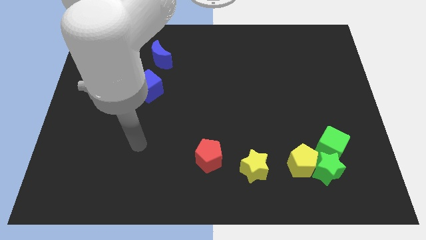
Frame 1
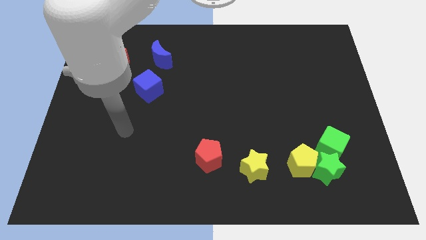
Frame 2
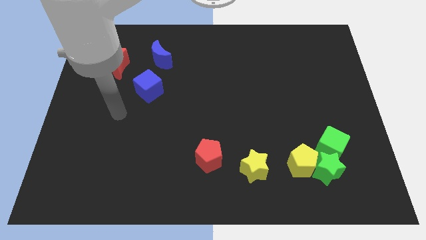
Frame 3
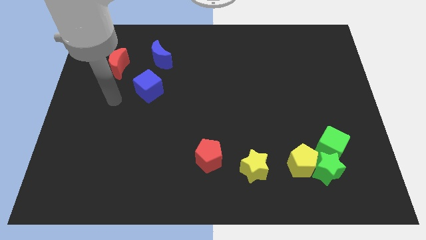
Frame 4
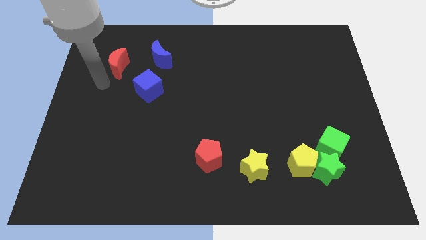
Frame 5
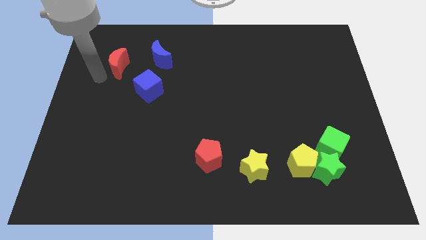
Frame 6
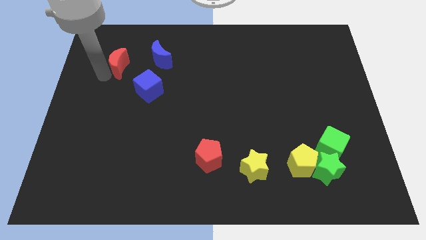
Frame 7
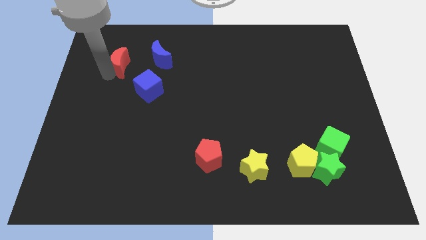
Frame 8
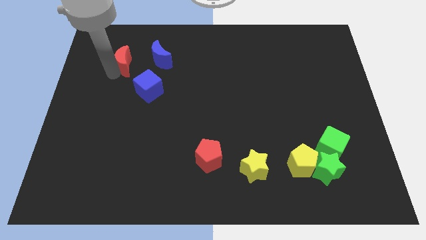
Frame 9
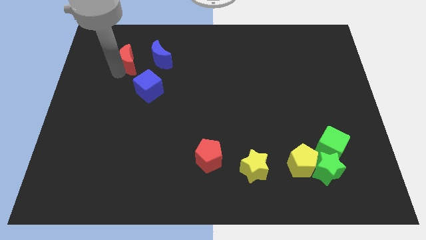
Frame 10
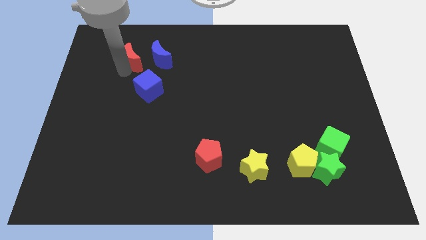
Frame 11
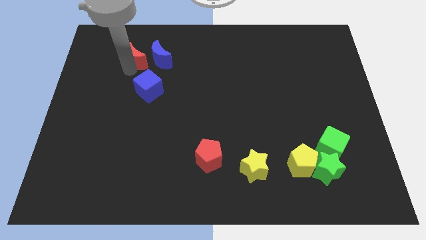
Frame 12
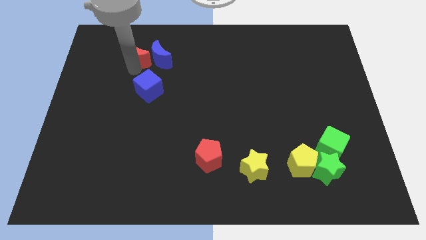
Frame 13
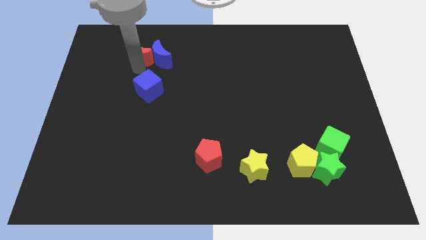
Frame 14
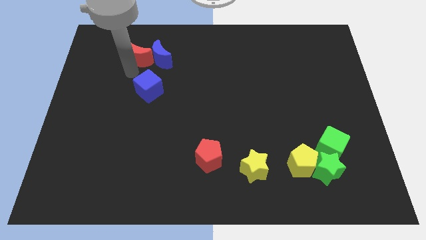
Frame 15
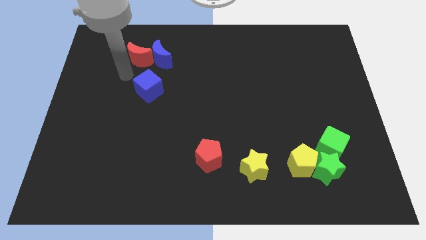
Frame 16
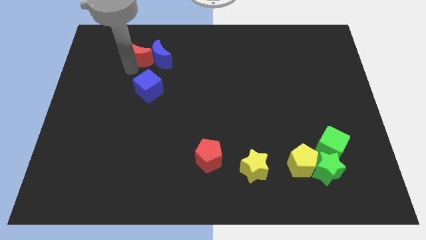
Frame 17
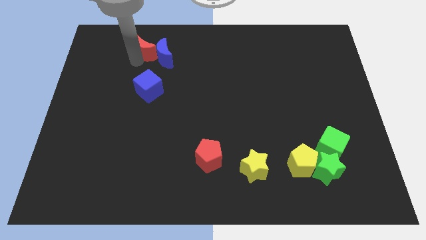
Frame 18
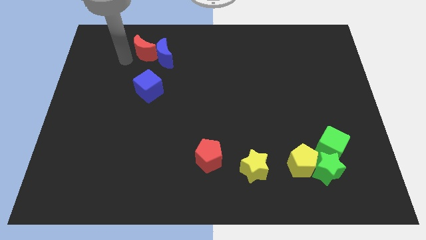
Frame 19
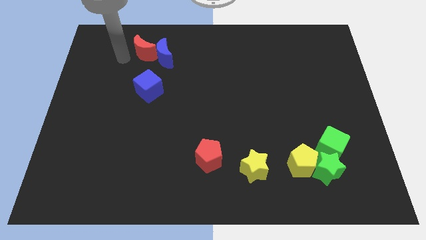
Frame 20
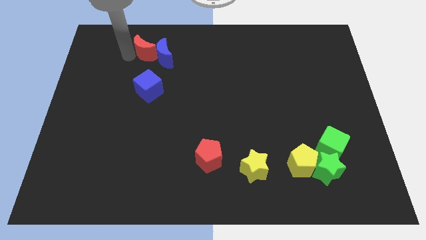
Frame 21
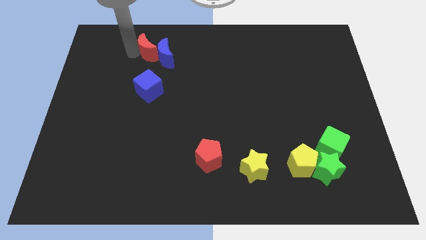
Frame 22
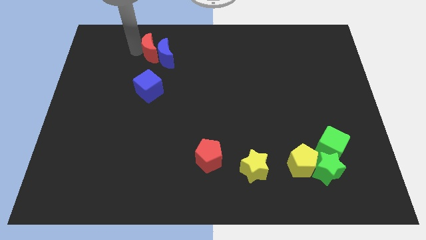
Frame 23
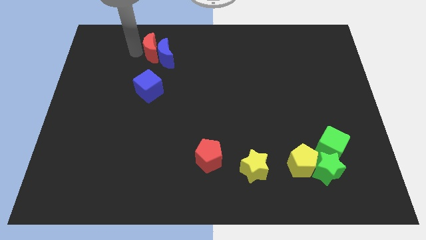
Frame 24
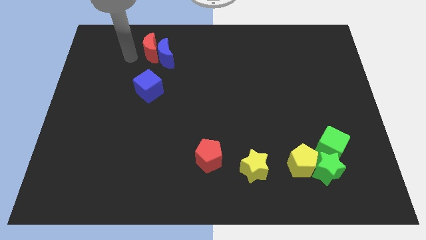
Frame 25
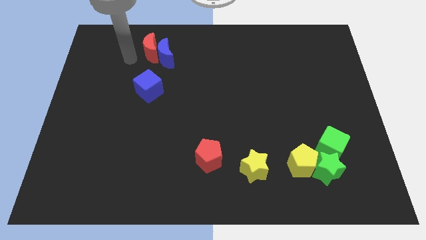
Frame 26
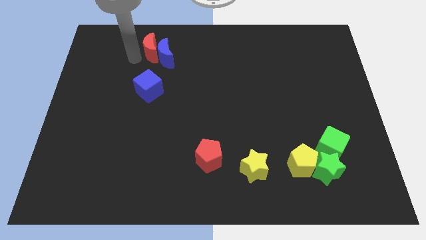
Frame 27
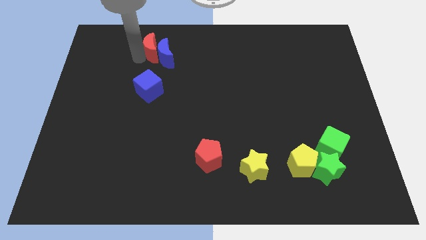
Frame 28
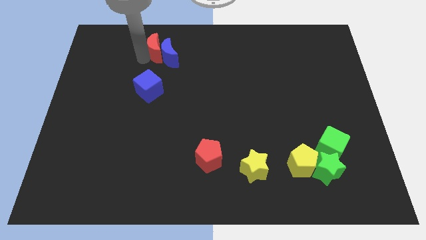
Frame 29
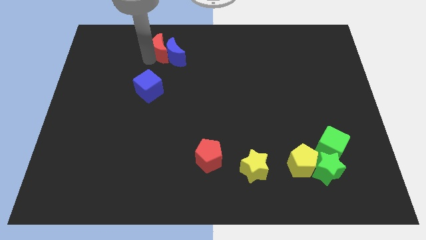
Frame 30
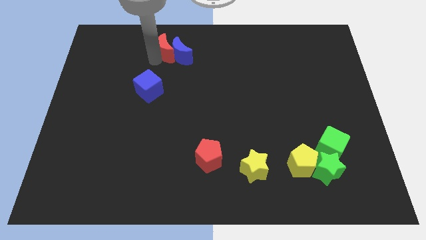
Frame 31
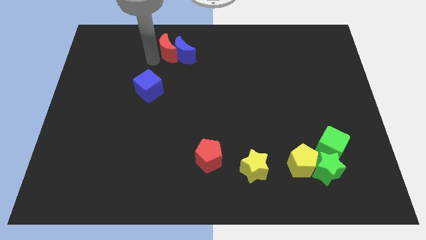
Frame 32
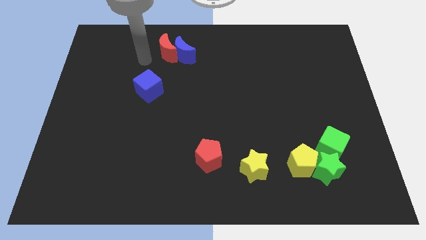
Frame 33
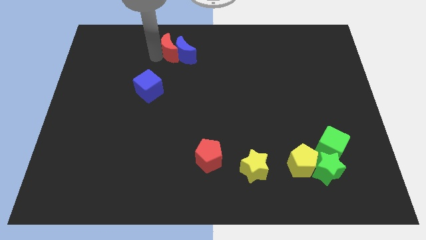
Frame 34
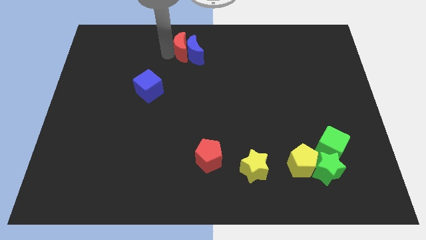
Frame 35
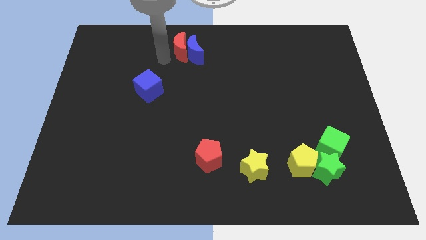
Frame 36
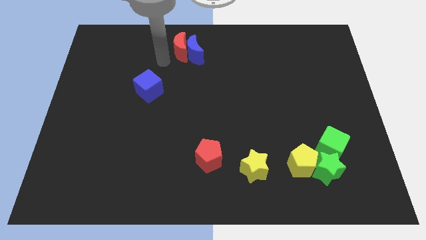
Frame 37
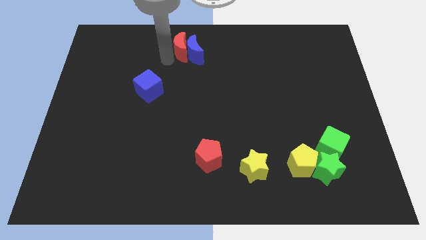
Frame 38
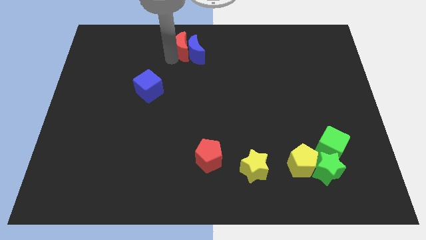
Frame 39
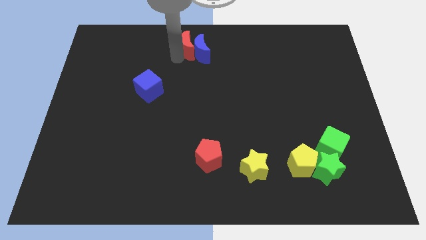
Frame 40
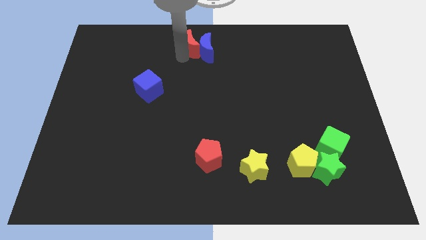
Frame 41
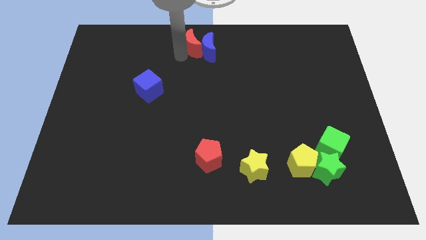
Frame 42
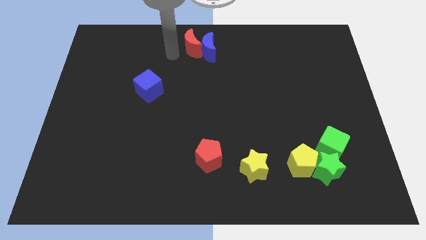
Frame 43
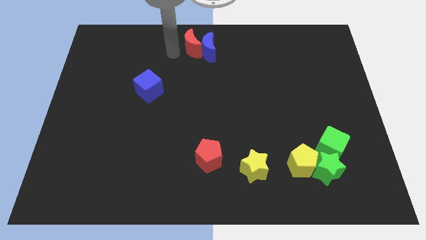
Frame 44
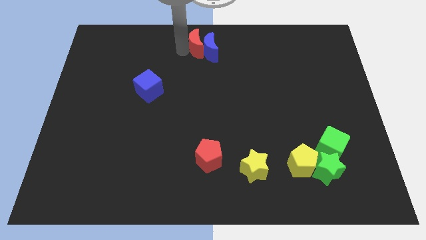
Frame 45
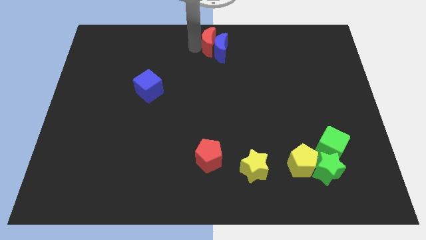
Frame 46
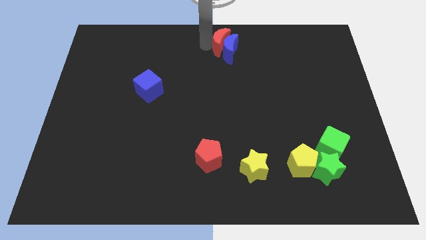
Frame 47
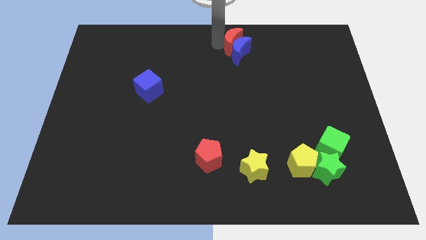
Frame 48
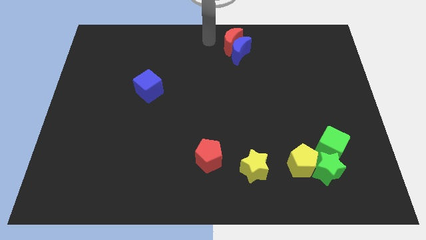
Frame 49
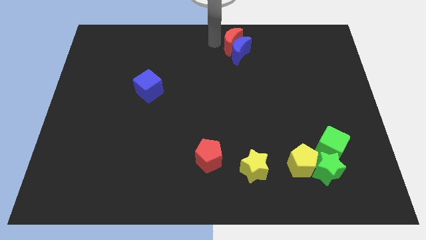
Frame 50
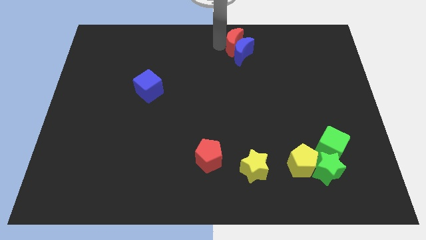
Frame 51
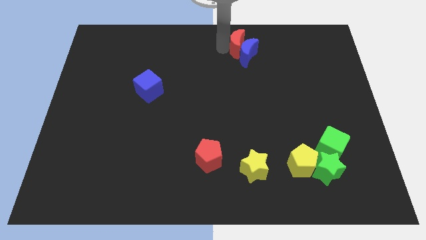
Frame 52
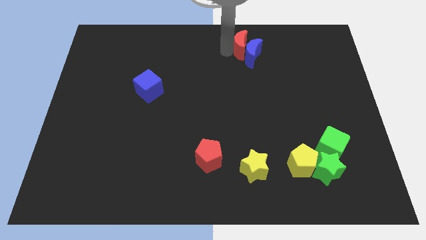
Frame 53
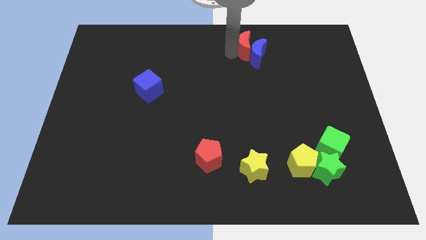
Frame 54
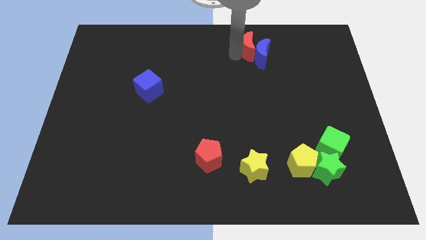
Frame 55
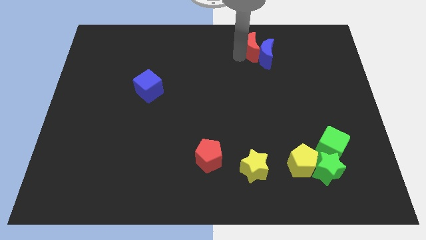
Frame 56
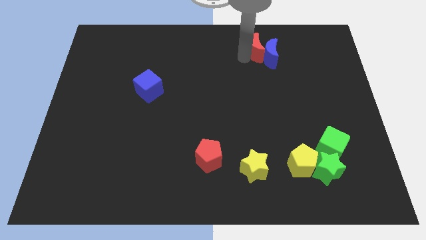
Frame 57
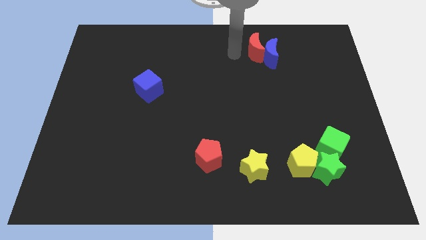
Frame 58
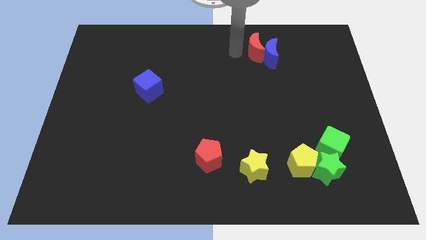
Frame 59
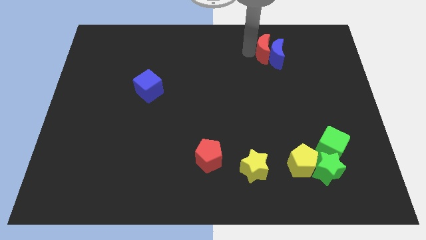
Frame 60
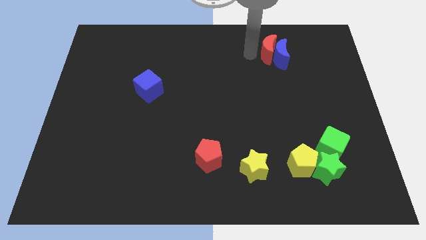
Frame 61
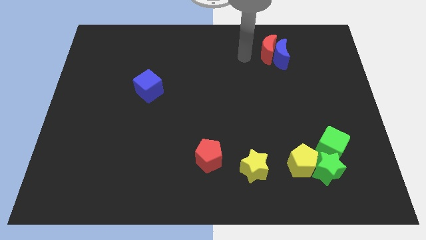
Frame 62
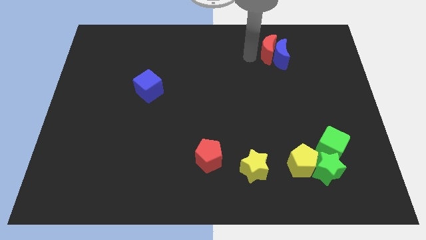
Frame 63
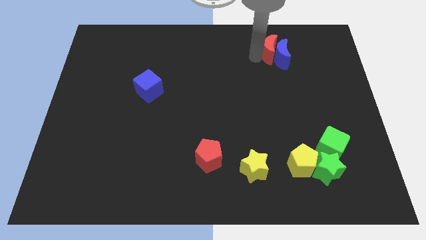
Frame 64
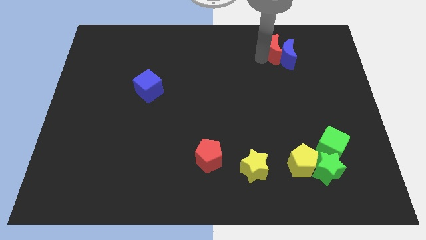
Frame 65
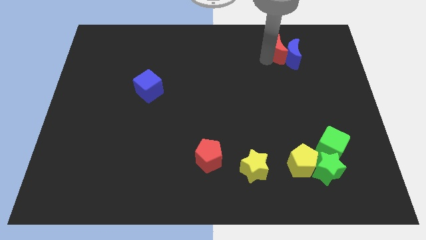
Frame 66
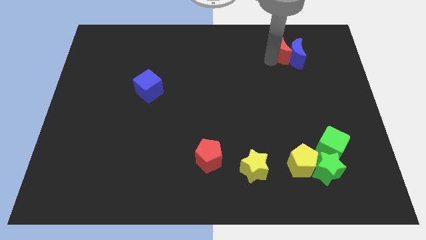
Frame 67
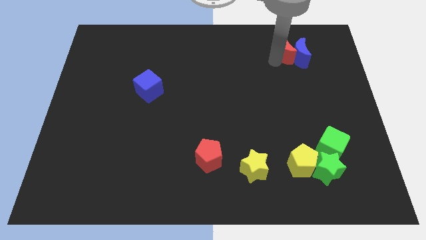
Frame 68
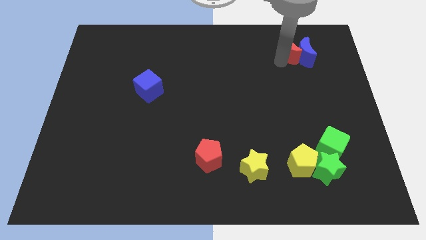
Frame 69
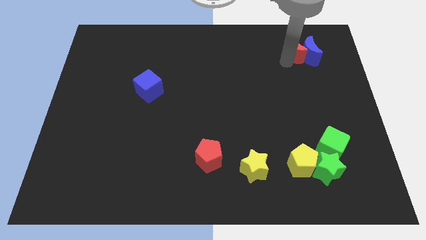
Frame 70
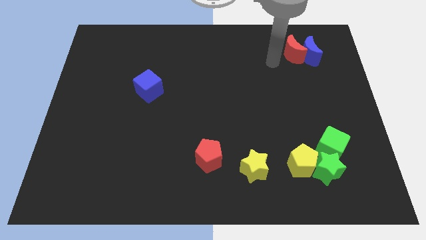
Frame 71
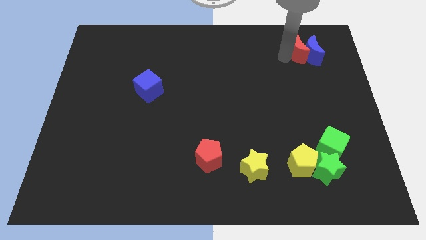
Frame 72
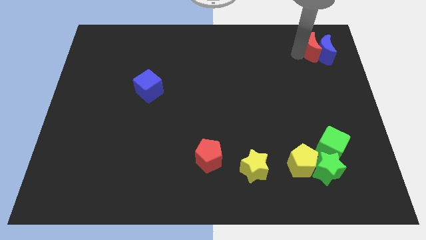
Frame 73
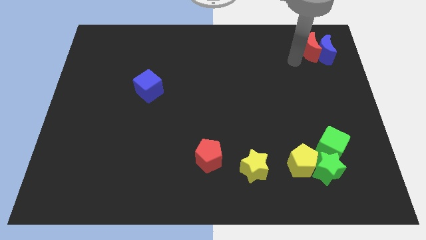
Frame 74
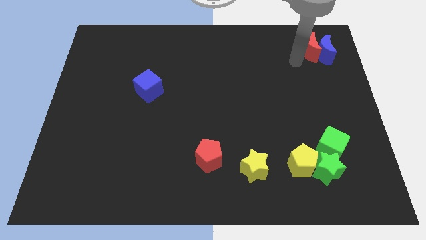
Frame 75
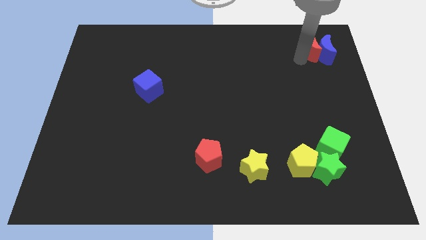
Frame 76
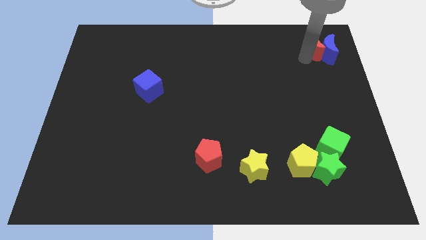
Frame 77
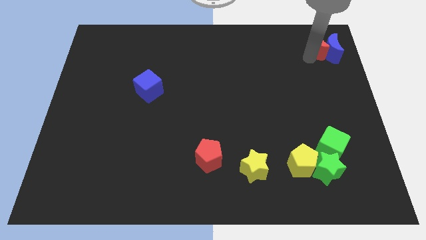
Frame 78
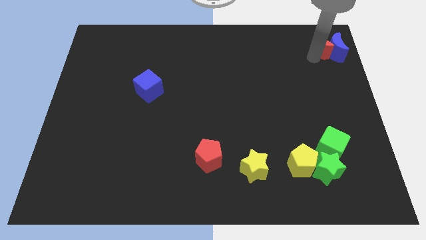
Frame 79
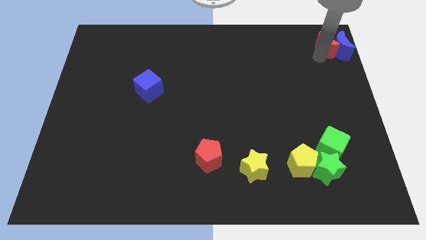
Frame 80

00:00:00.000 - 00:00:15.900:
move the red moon to the top right corner
